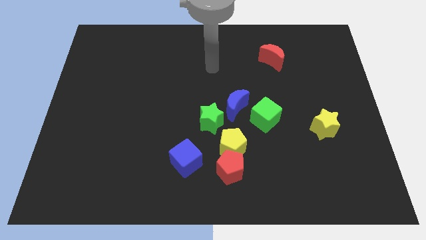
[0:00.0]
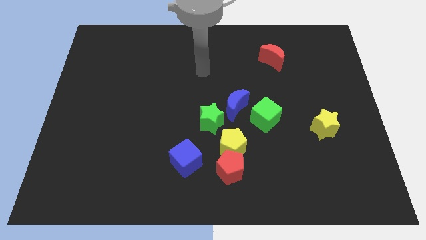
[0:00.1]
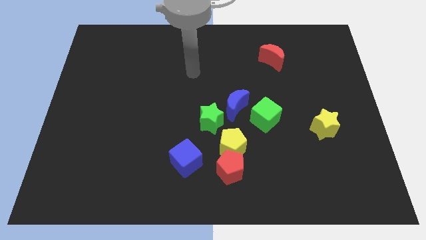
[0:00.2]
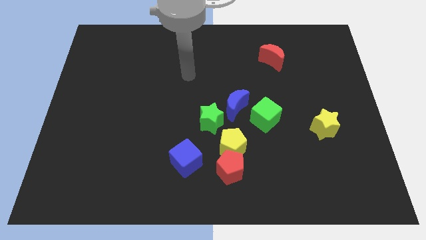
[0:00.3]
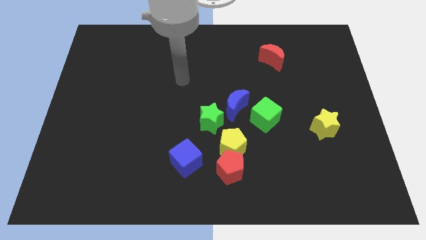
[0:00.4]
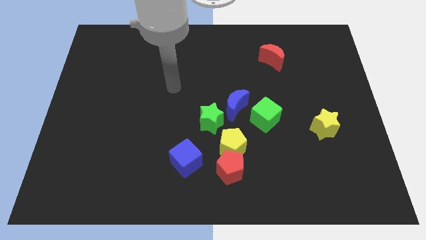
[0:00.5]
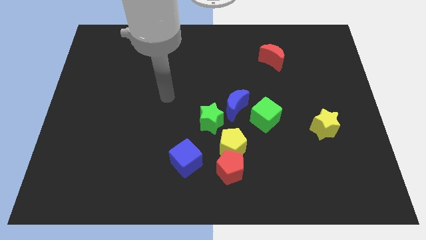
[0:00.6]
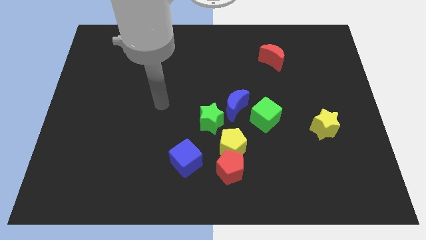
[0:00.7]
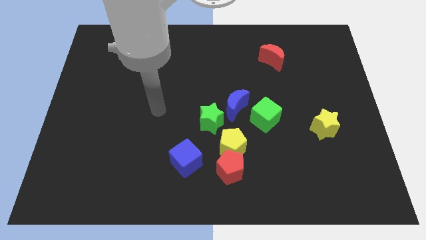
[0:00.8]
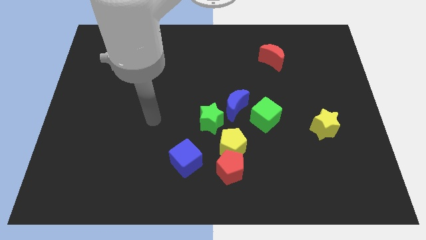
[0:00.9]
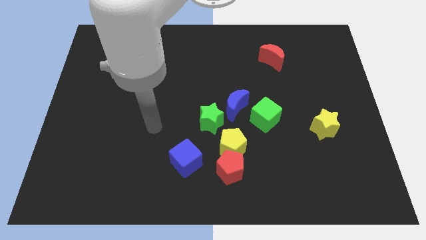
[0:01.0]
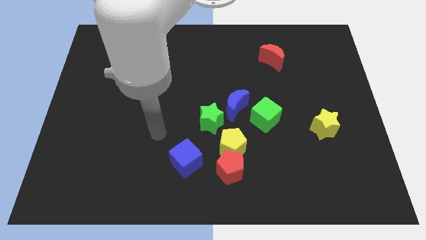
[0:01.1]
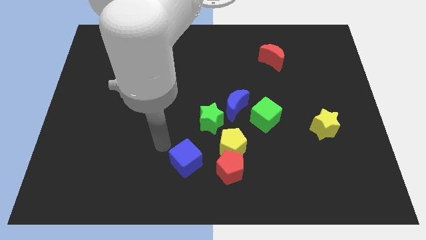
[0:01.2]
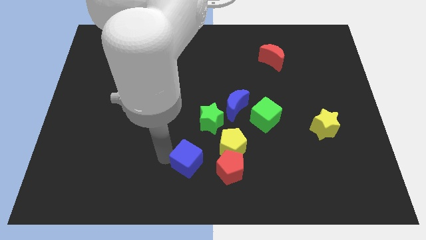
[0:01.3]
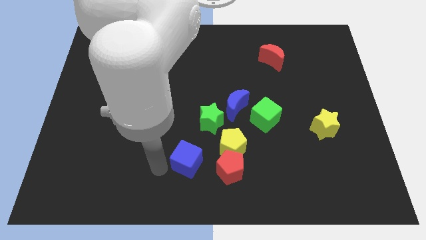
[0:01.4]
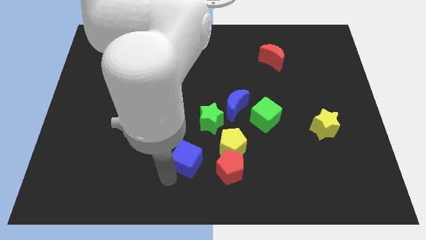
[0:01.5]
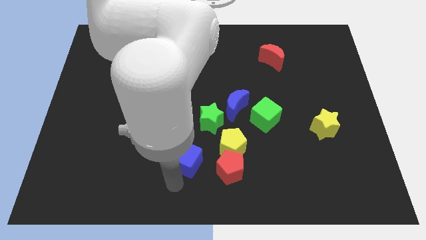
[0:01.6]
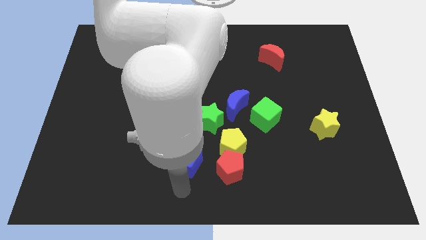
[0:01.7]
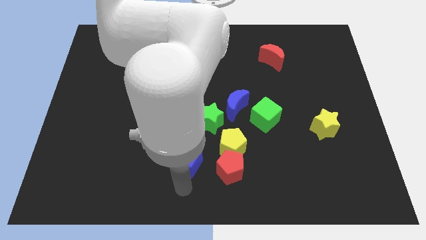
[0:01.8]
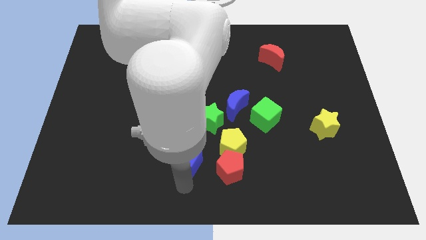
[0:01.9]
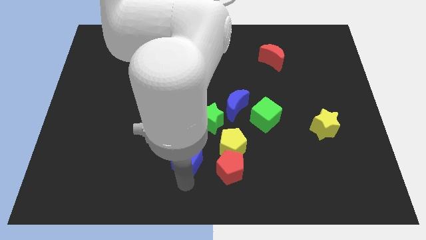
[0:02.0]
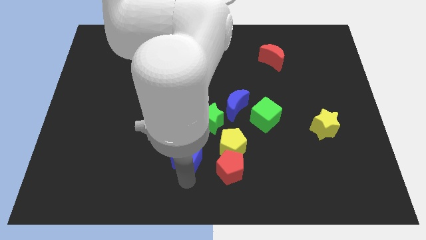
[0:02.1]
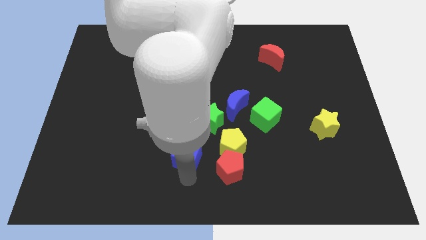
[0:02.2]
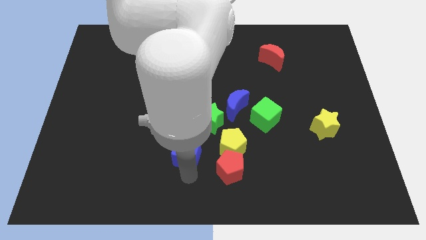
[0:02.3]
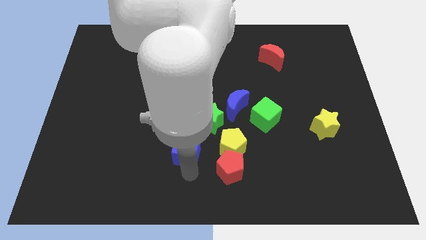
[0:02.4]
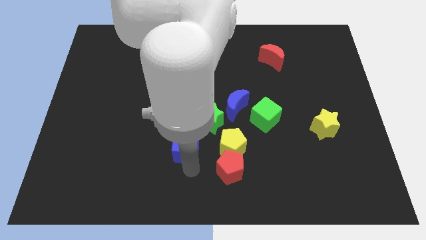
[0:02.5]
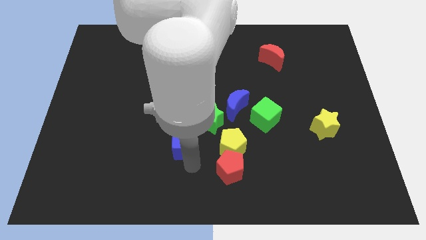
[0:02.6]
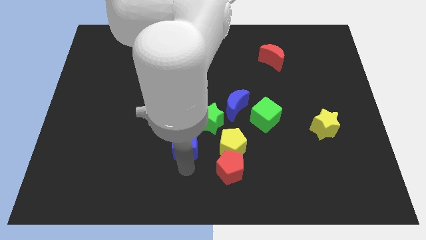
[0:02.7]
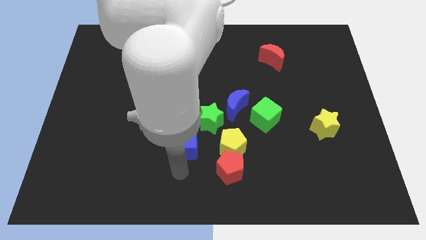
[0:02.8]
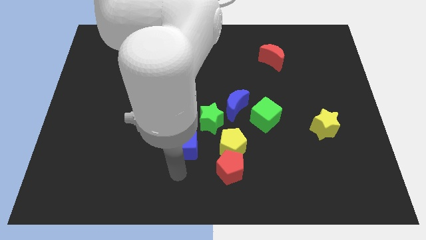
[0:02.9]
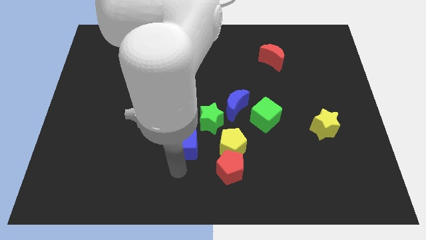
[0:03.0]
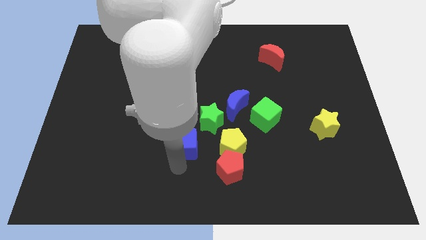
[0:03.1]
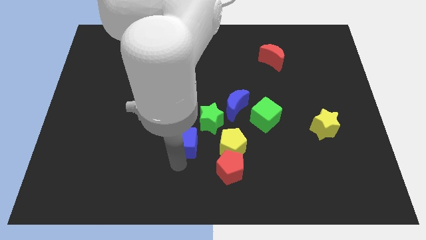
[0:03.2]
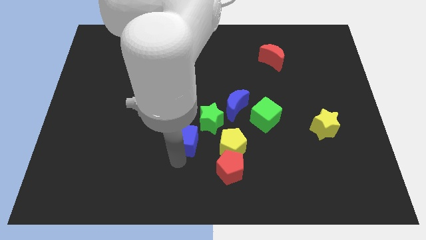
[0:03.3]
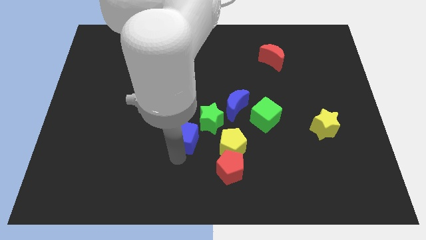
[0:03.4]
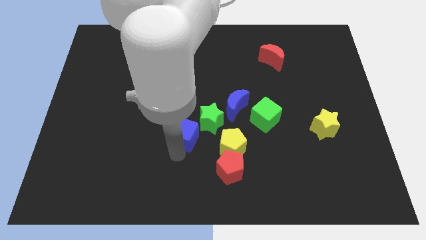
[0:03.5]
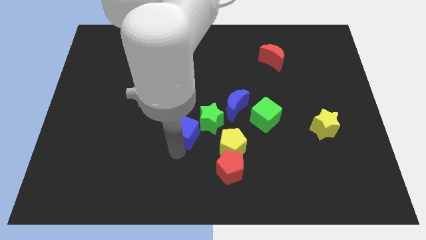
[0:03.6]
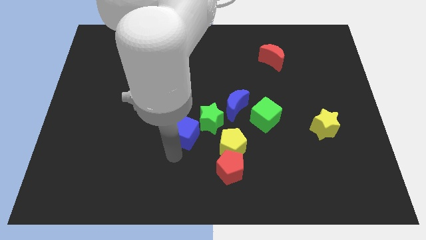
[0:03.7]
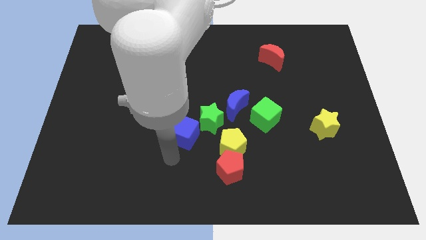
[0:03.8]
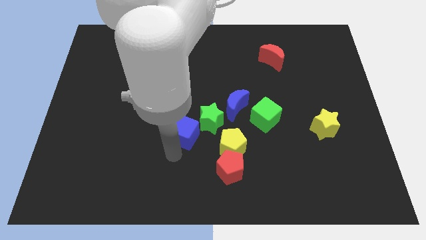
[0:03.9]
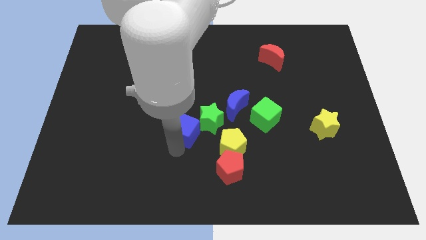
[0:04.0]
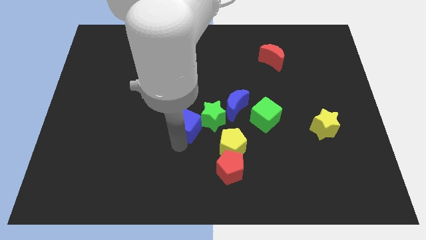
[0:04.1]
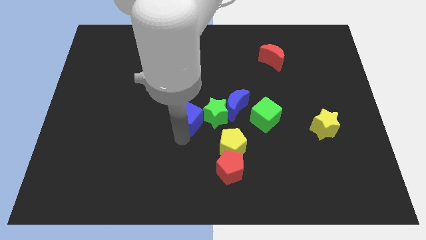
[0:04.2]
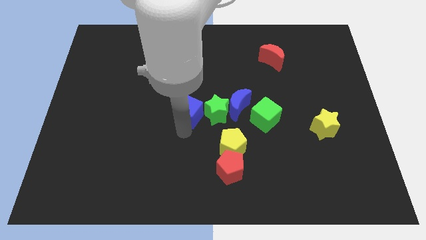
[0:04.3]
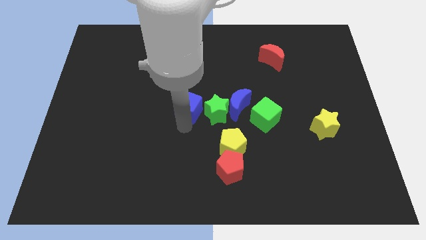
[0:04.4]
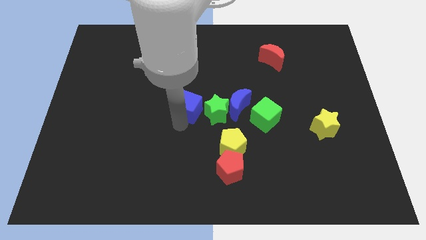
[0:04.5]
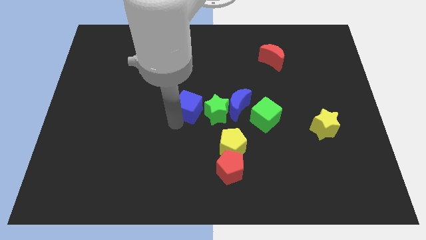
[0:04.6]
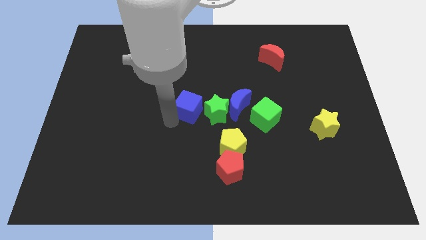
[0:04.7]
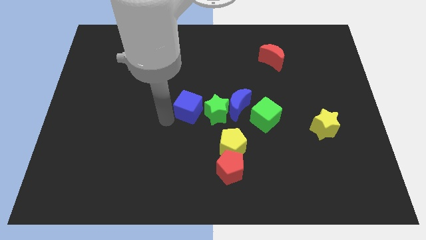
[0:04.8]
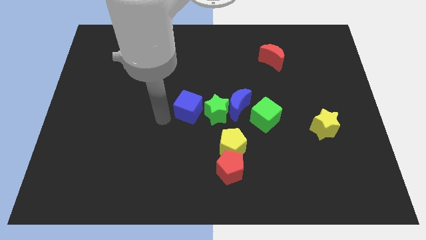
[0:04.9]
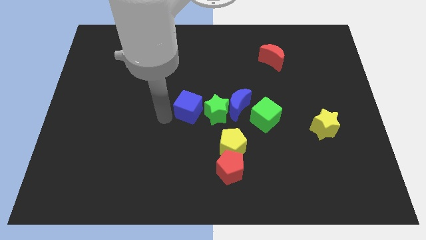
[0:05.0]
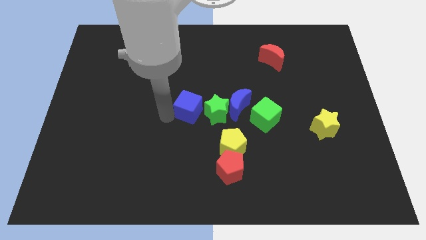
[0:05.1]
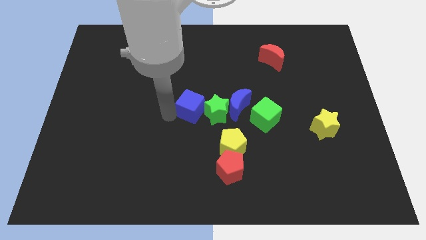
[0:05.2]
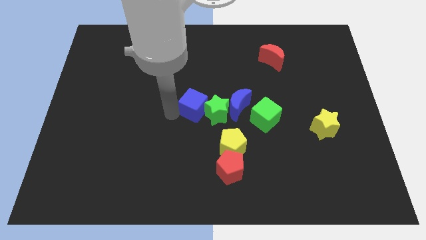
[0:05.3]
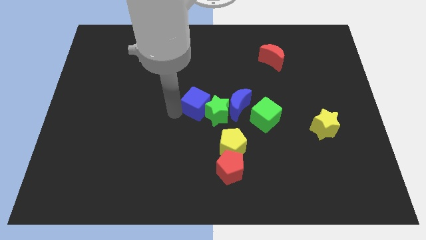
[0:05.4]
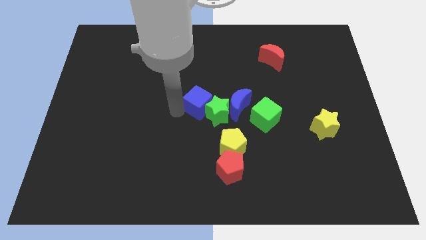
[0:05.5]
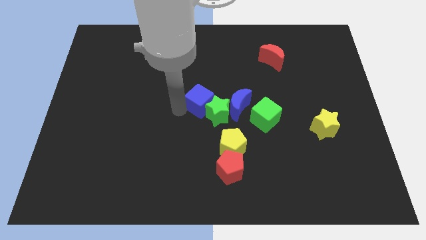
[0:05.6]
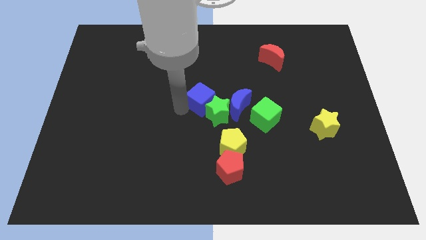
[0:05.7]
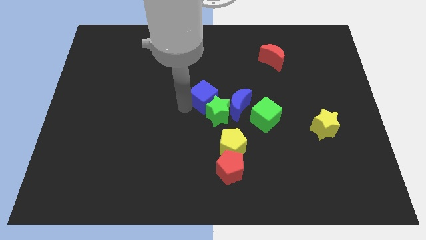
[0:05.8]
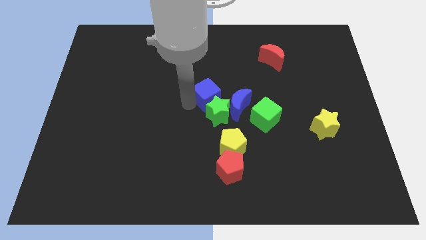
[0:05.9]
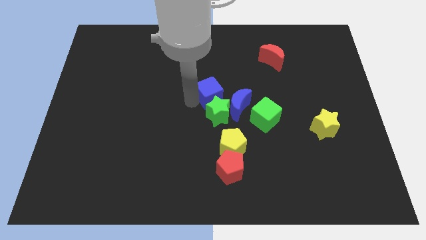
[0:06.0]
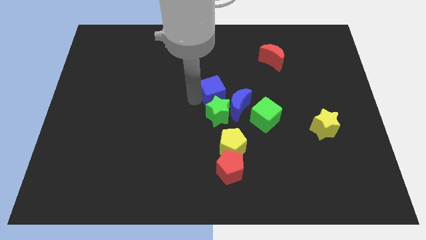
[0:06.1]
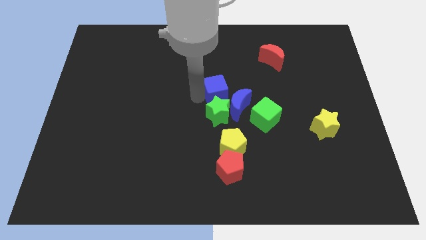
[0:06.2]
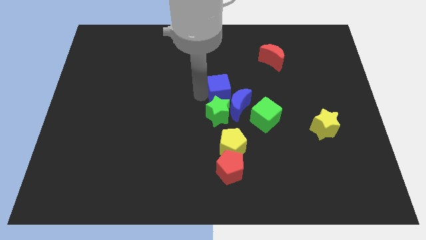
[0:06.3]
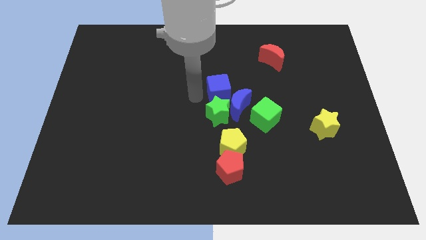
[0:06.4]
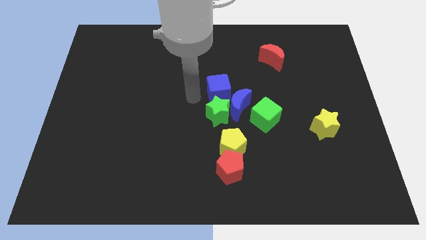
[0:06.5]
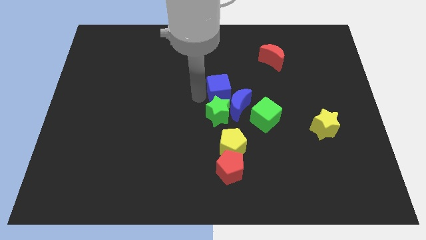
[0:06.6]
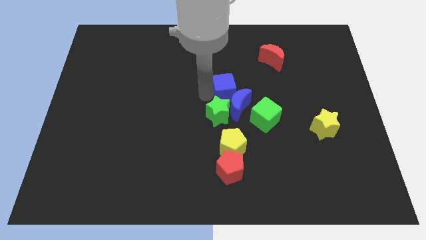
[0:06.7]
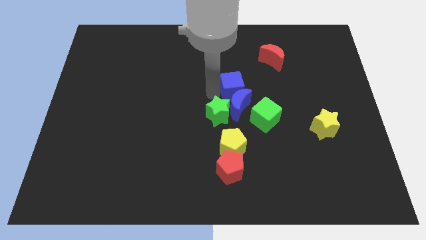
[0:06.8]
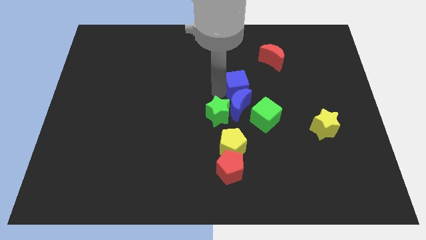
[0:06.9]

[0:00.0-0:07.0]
slide the blue cube upwards and then to the right

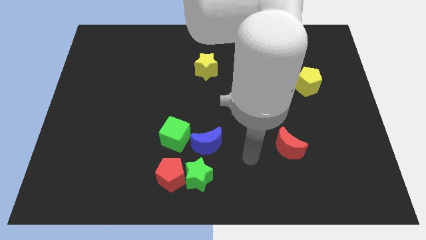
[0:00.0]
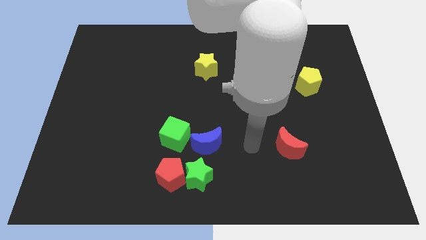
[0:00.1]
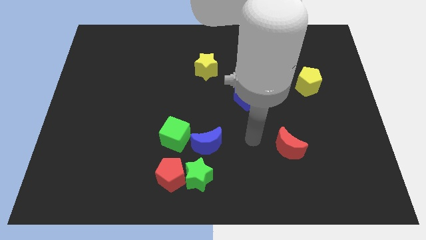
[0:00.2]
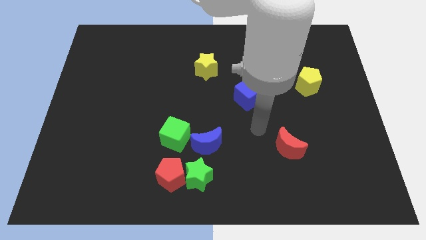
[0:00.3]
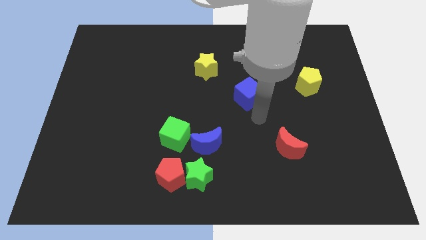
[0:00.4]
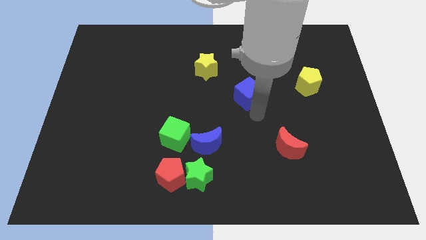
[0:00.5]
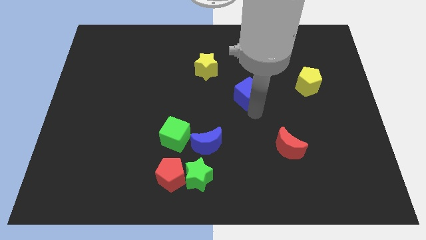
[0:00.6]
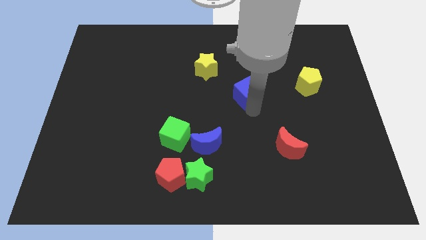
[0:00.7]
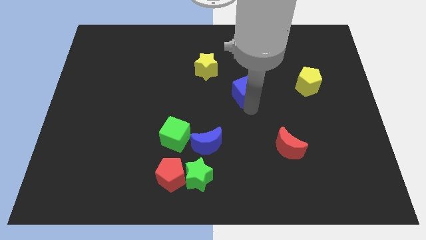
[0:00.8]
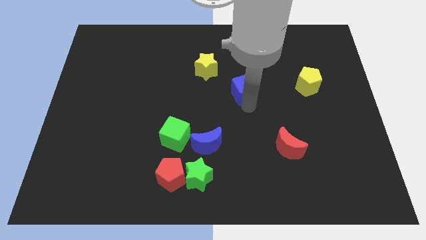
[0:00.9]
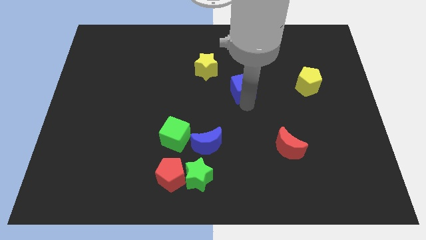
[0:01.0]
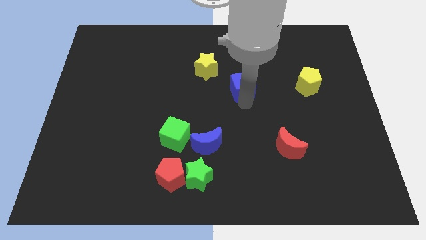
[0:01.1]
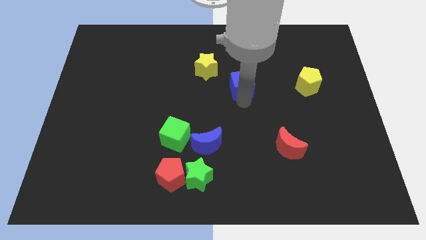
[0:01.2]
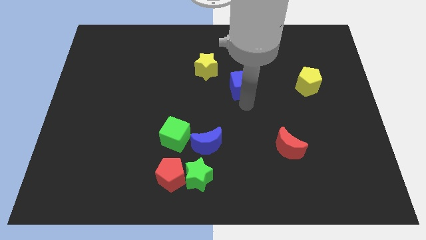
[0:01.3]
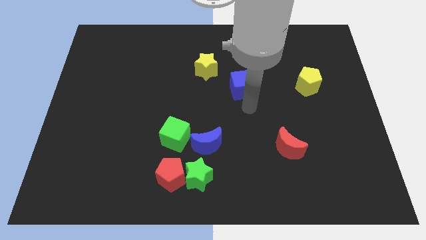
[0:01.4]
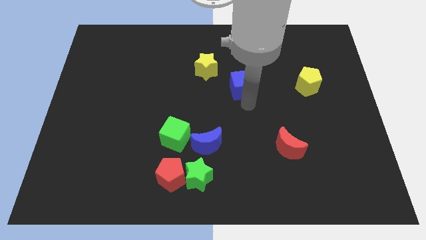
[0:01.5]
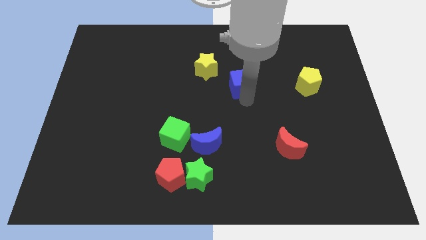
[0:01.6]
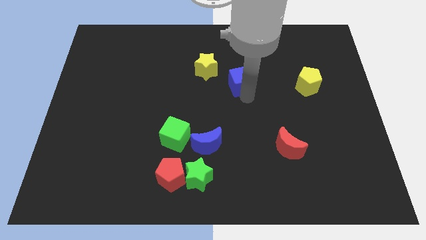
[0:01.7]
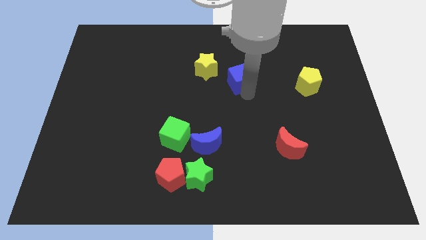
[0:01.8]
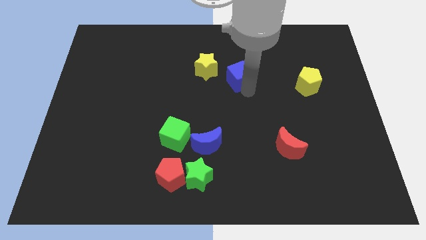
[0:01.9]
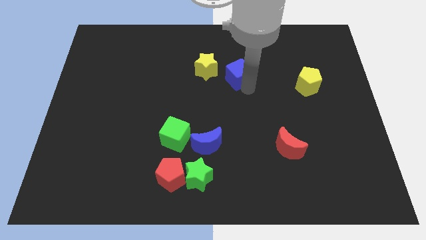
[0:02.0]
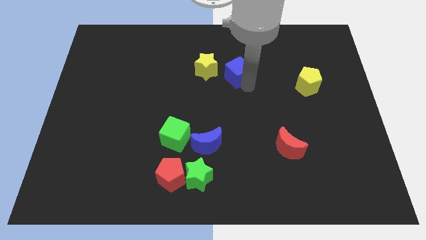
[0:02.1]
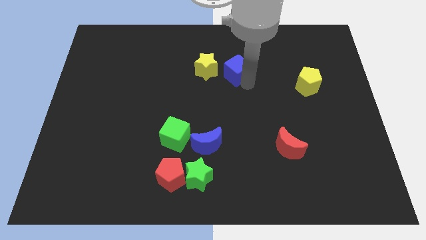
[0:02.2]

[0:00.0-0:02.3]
move the blue cube up and left somewhat
